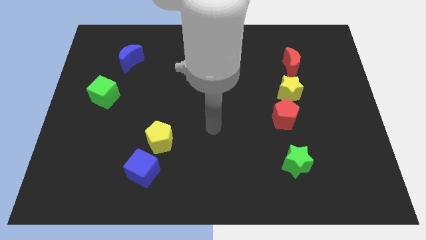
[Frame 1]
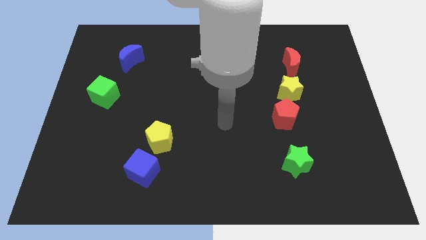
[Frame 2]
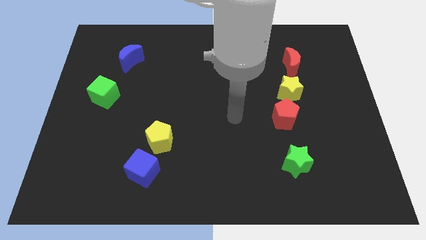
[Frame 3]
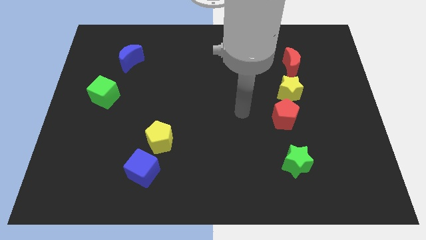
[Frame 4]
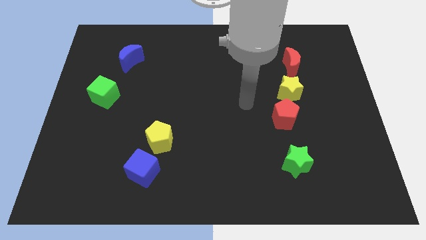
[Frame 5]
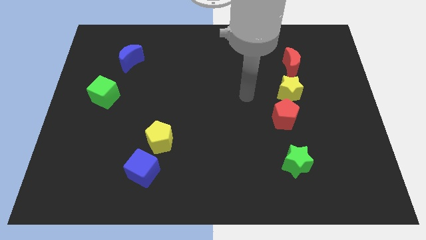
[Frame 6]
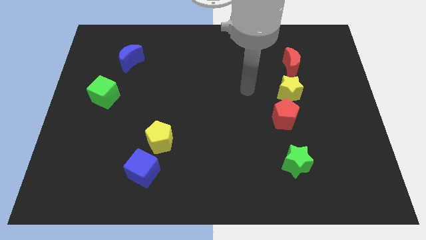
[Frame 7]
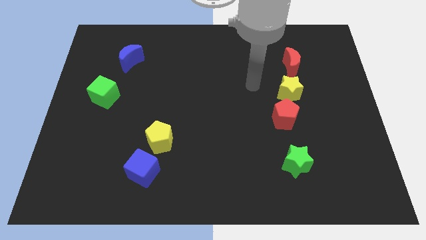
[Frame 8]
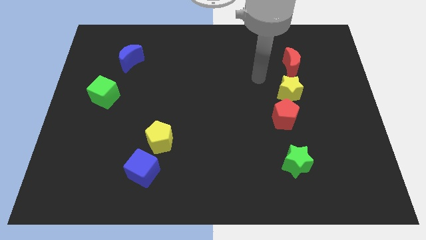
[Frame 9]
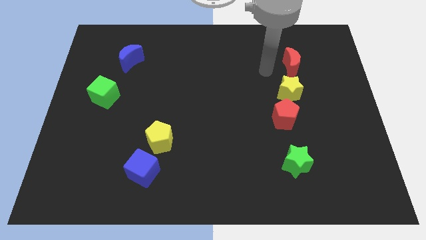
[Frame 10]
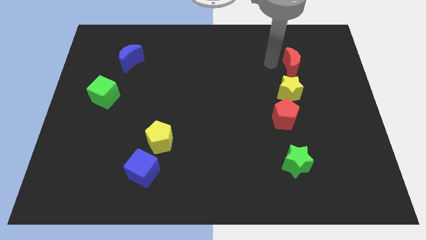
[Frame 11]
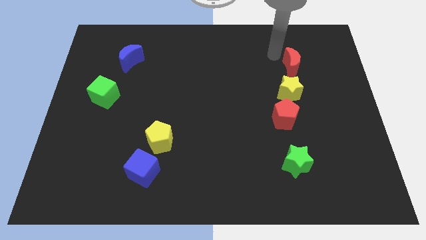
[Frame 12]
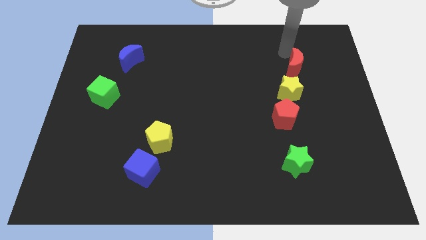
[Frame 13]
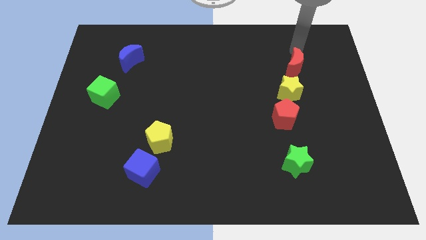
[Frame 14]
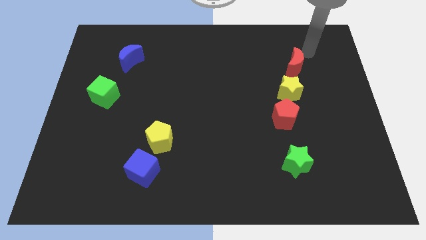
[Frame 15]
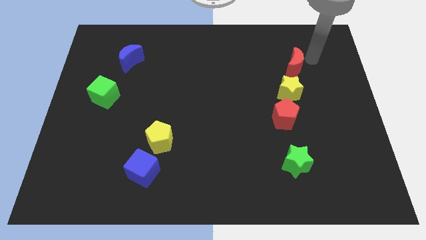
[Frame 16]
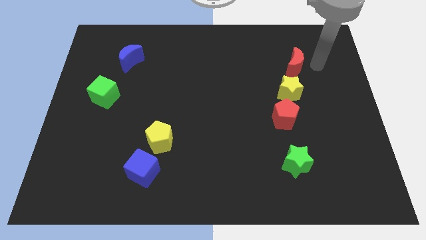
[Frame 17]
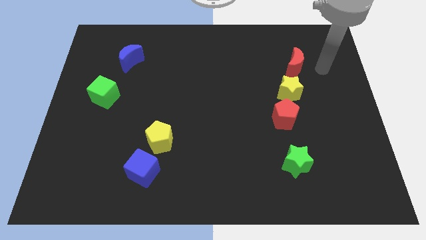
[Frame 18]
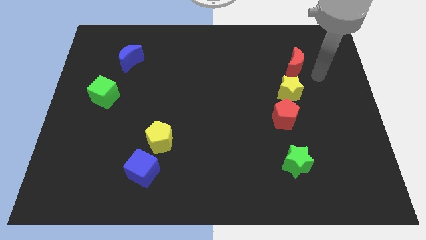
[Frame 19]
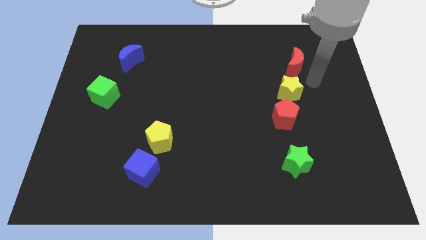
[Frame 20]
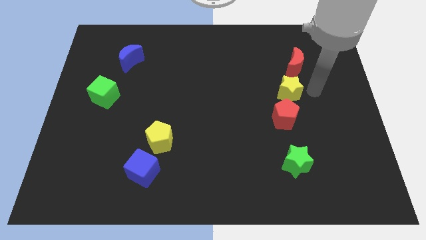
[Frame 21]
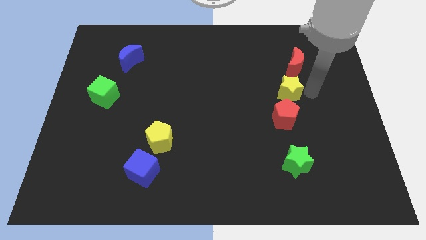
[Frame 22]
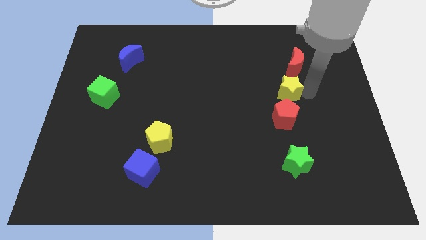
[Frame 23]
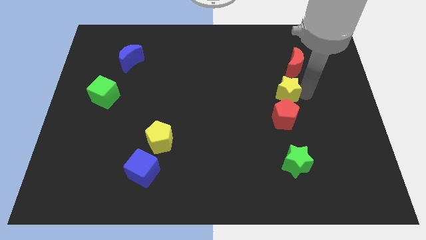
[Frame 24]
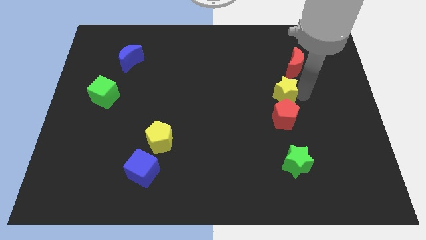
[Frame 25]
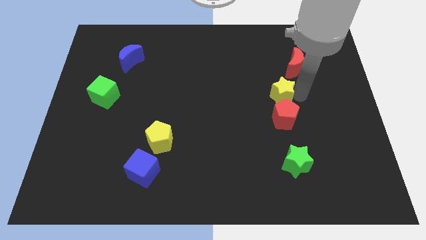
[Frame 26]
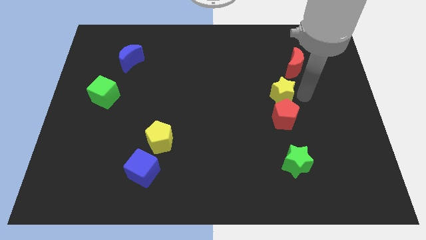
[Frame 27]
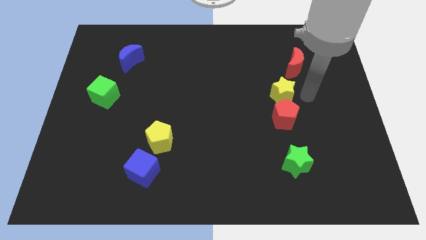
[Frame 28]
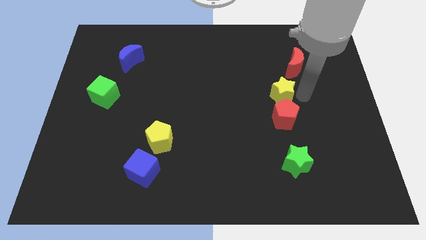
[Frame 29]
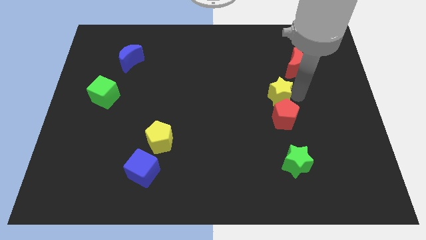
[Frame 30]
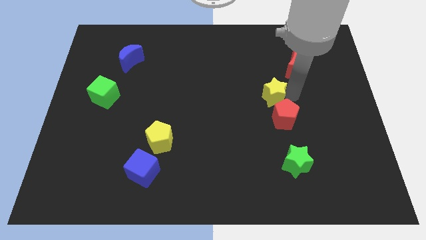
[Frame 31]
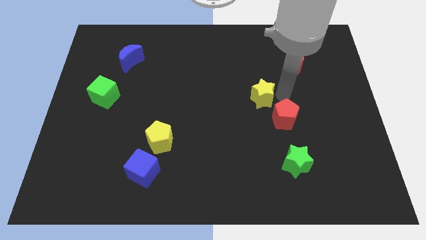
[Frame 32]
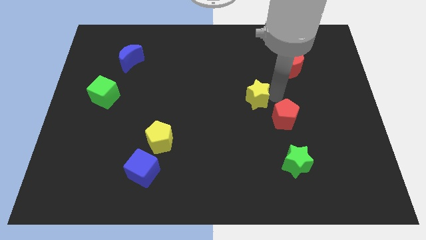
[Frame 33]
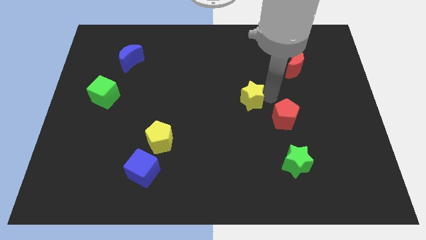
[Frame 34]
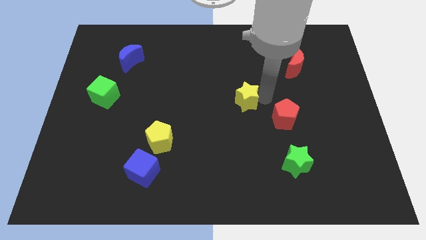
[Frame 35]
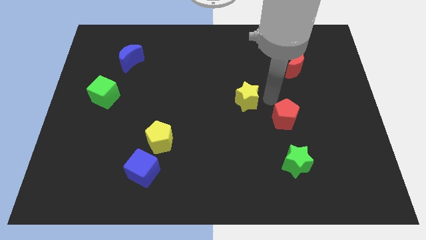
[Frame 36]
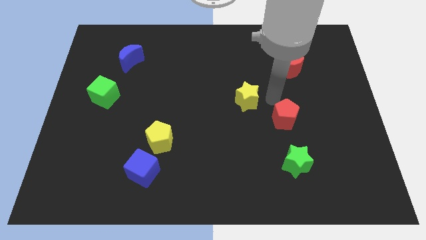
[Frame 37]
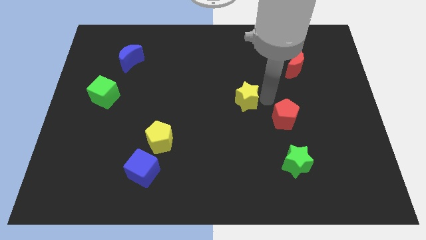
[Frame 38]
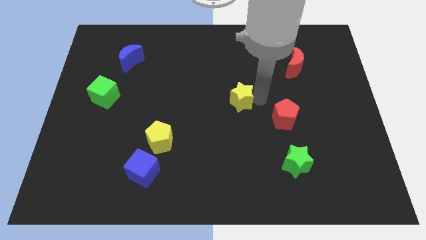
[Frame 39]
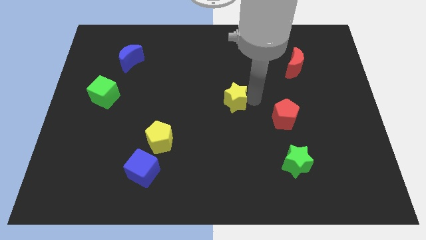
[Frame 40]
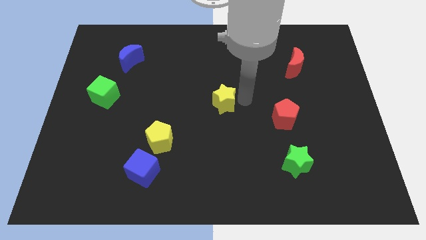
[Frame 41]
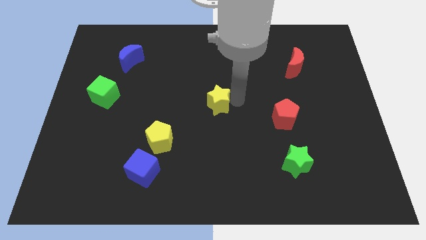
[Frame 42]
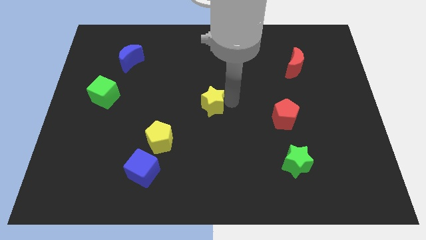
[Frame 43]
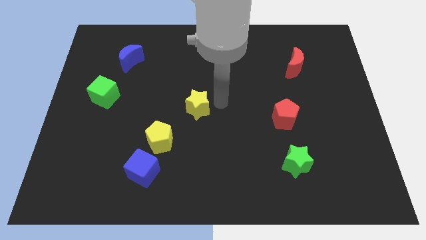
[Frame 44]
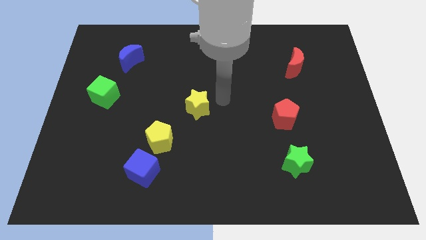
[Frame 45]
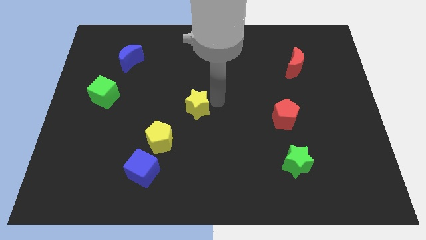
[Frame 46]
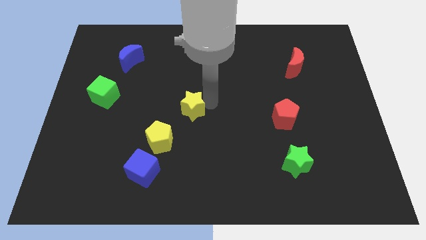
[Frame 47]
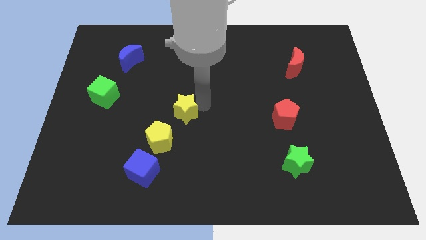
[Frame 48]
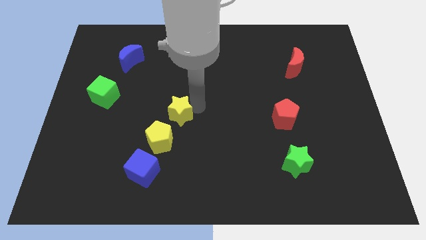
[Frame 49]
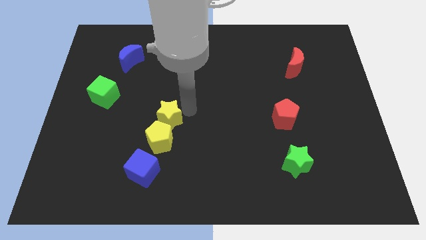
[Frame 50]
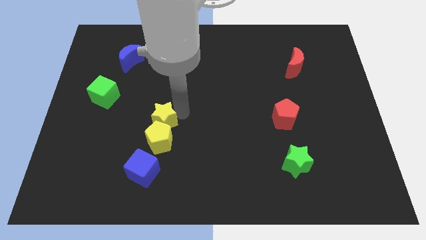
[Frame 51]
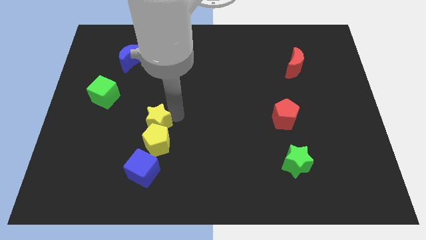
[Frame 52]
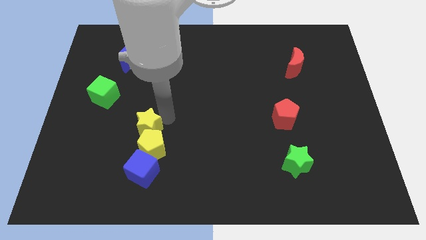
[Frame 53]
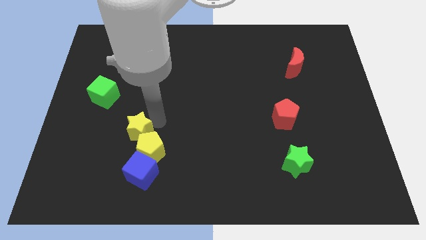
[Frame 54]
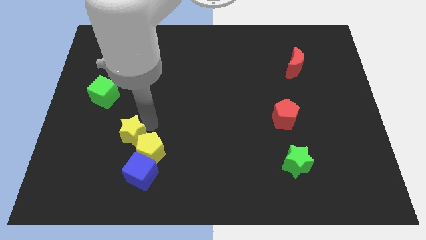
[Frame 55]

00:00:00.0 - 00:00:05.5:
slide the yellow star diagonally up and to the left of the blue cube

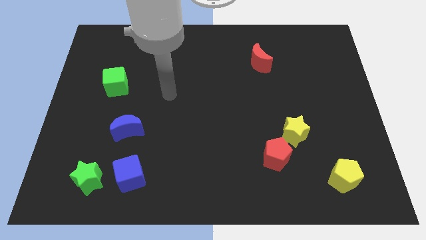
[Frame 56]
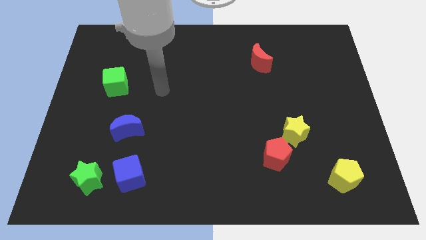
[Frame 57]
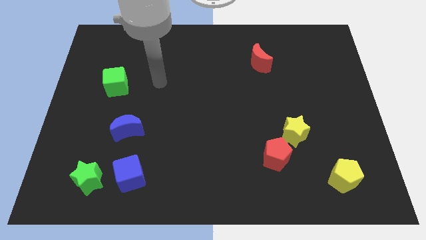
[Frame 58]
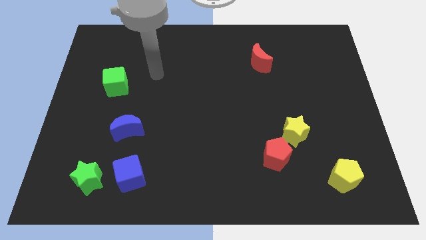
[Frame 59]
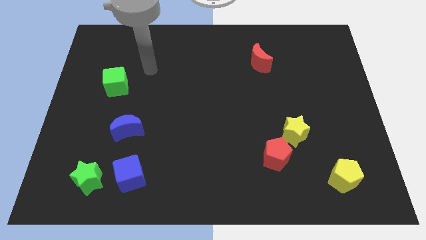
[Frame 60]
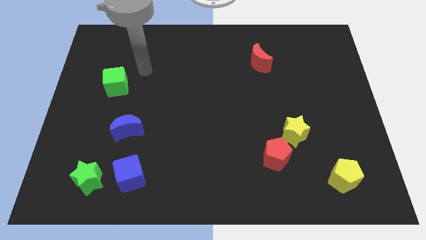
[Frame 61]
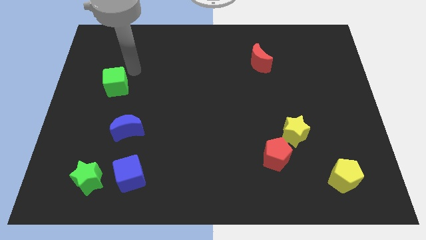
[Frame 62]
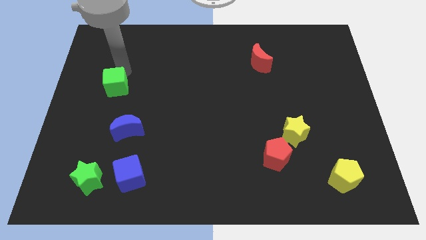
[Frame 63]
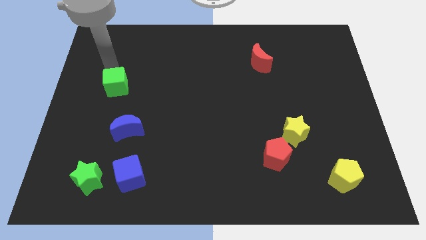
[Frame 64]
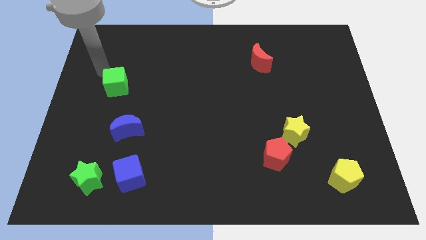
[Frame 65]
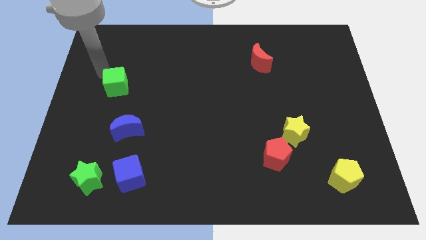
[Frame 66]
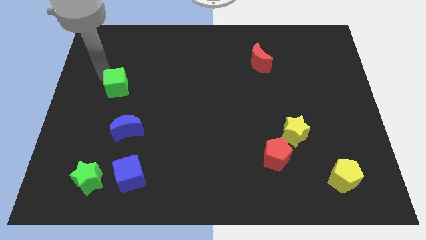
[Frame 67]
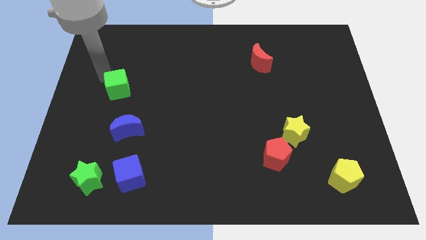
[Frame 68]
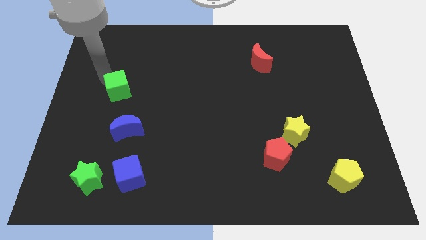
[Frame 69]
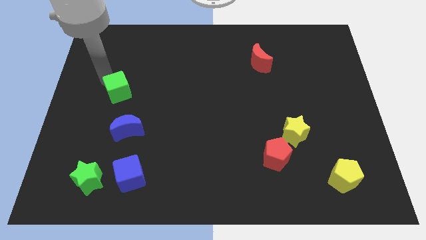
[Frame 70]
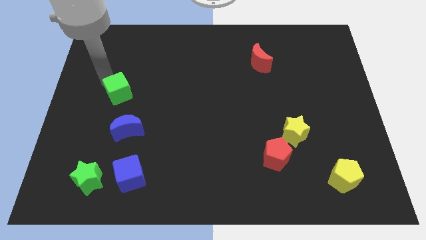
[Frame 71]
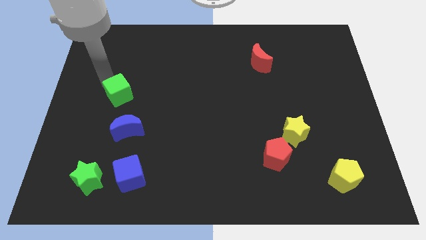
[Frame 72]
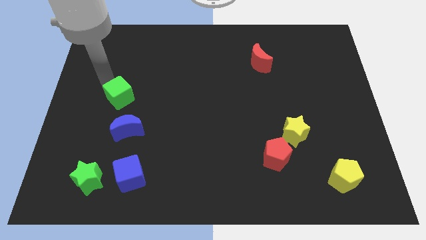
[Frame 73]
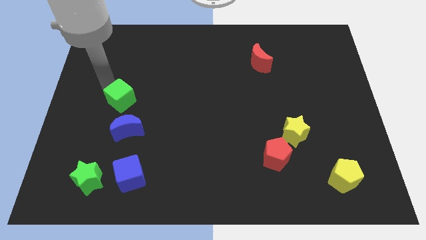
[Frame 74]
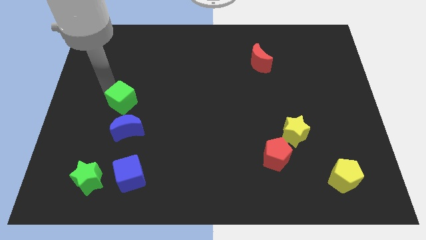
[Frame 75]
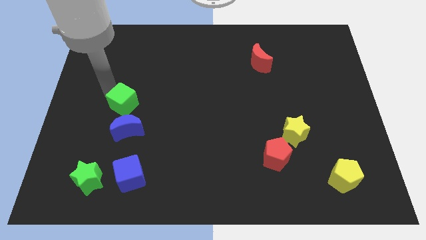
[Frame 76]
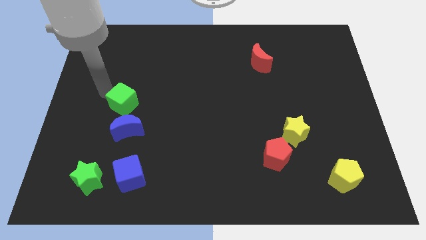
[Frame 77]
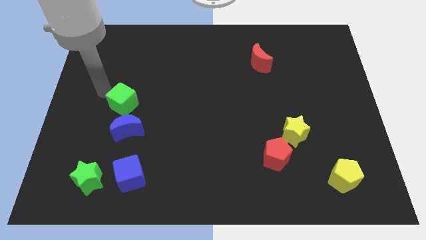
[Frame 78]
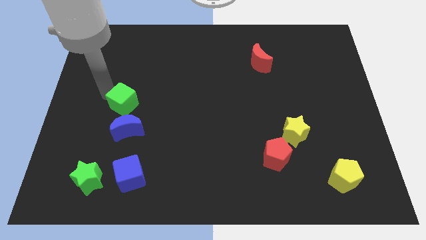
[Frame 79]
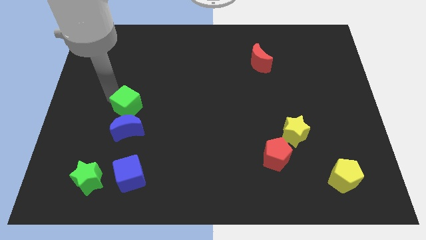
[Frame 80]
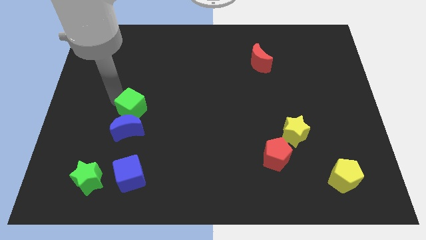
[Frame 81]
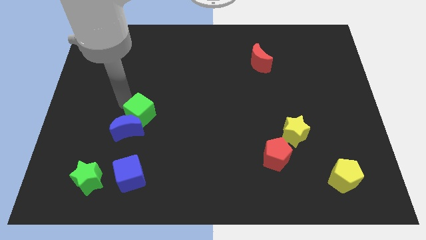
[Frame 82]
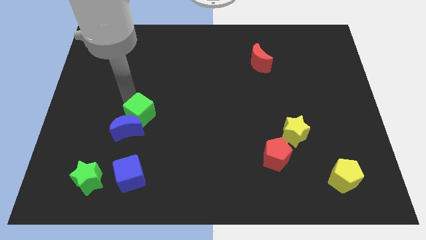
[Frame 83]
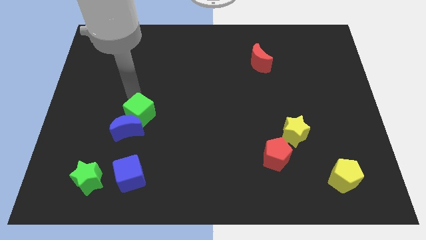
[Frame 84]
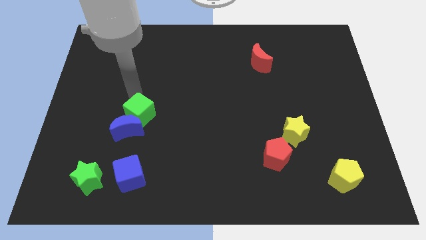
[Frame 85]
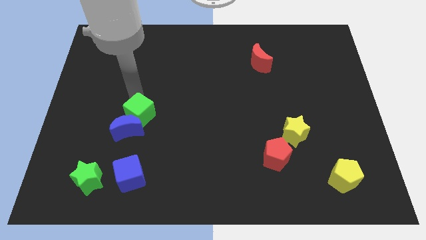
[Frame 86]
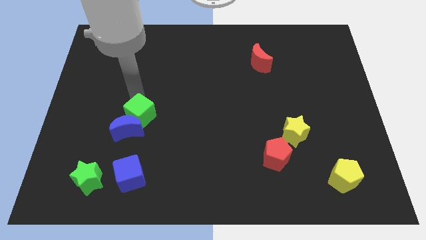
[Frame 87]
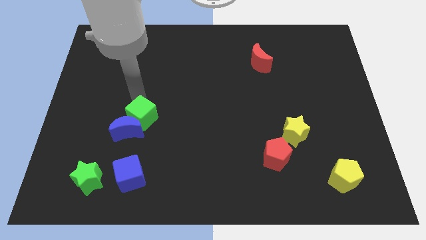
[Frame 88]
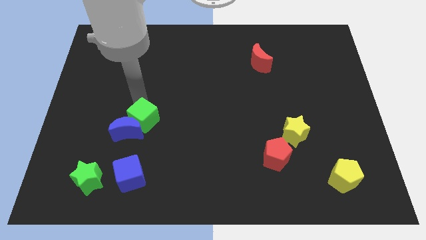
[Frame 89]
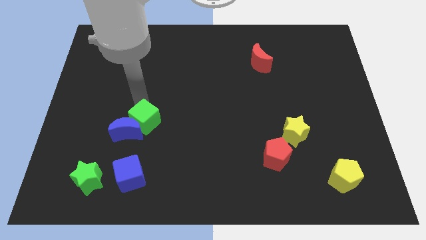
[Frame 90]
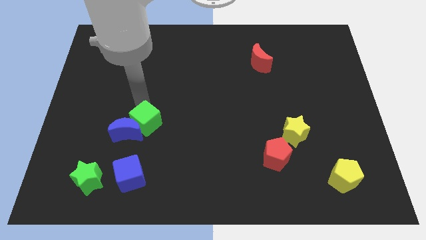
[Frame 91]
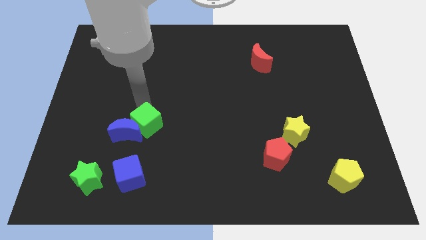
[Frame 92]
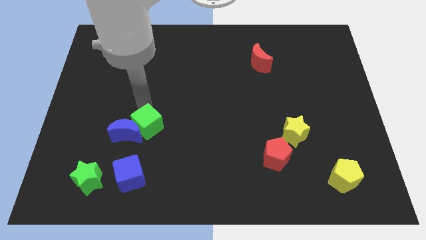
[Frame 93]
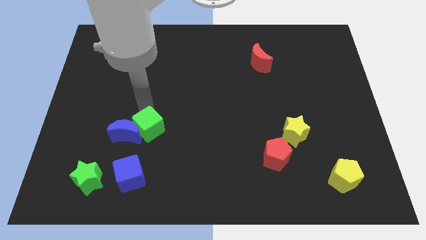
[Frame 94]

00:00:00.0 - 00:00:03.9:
move the green cube to the bottom right side of the blue moon
